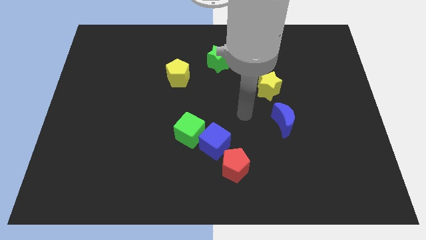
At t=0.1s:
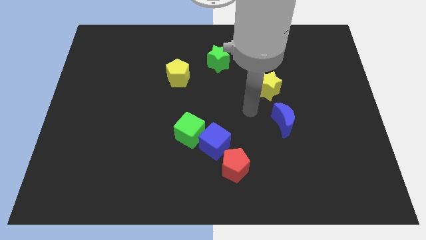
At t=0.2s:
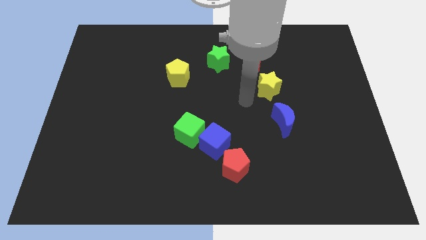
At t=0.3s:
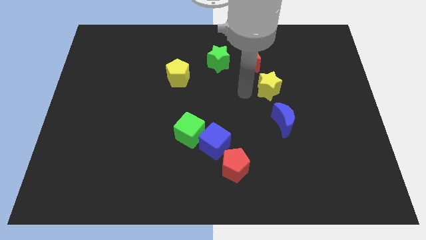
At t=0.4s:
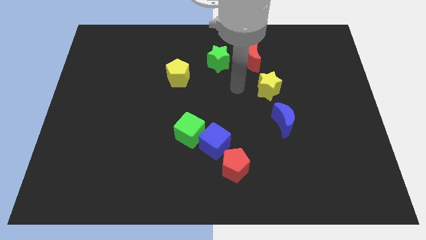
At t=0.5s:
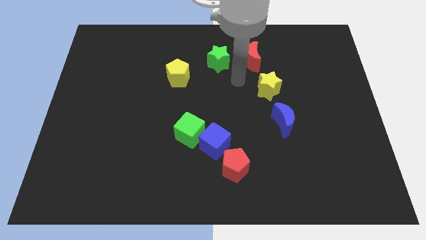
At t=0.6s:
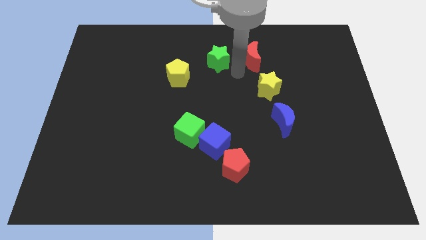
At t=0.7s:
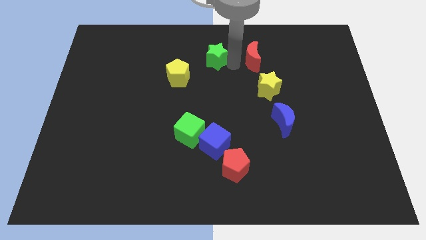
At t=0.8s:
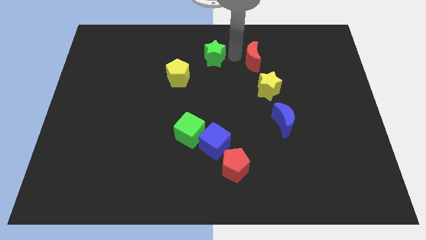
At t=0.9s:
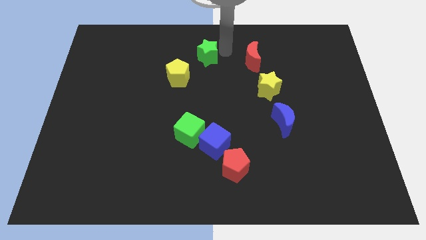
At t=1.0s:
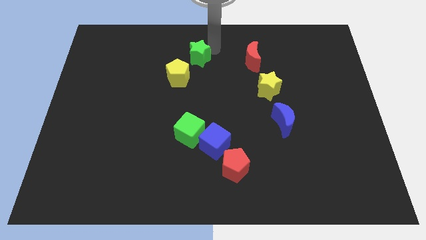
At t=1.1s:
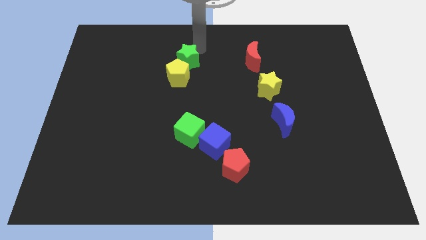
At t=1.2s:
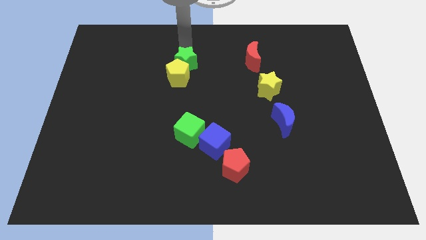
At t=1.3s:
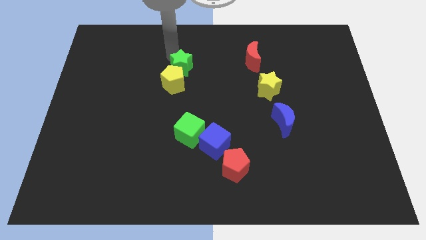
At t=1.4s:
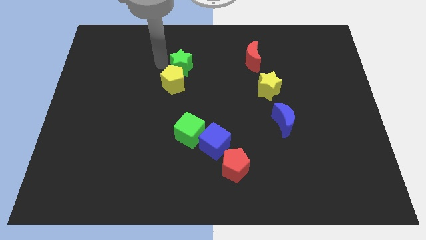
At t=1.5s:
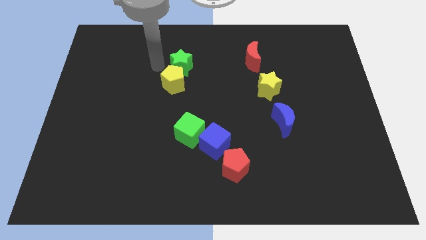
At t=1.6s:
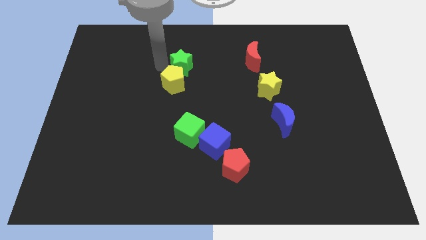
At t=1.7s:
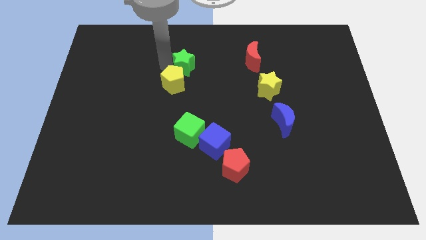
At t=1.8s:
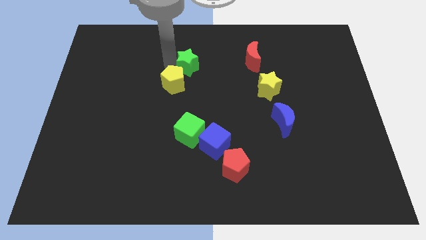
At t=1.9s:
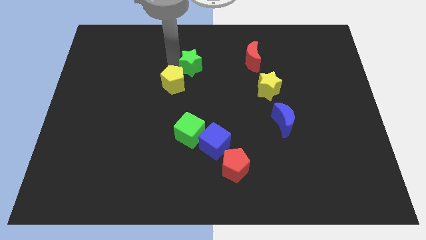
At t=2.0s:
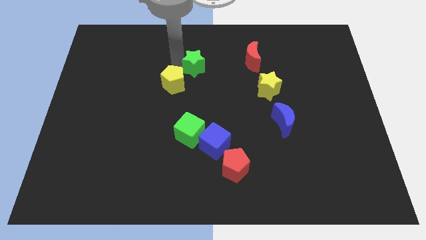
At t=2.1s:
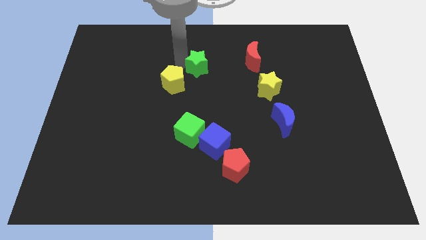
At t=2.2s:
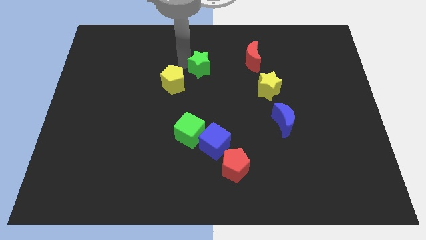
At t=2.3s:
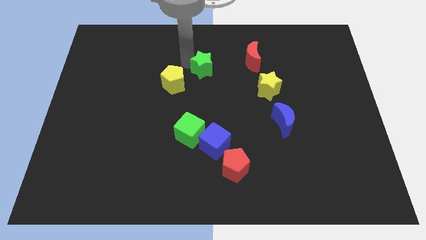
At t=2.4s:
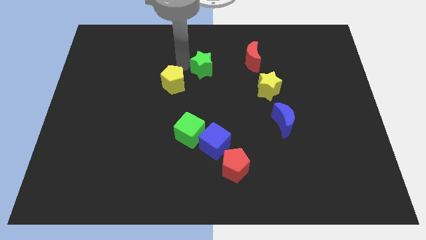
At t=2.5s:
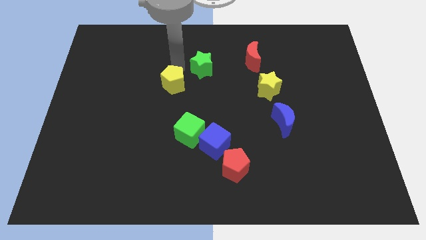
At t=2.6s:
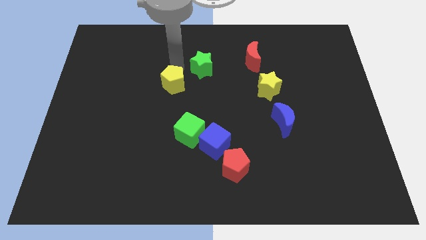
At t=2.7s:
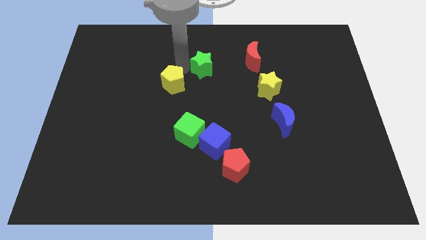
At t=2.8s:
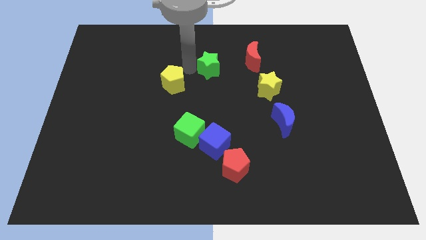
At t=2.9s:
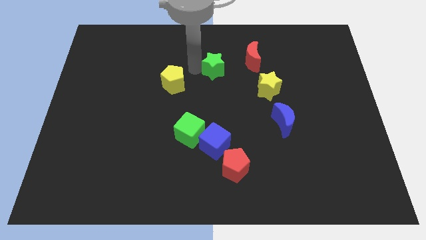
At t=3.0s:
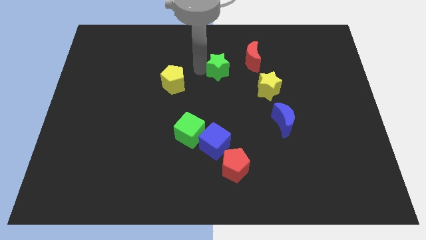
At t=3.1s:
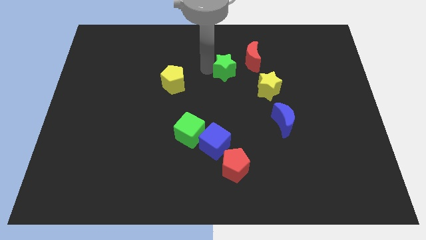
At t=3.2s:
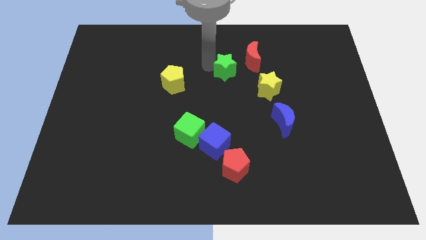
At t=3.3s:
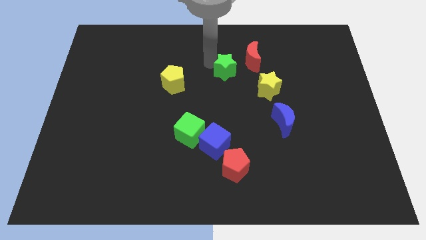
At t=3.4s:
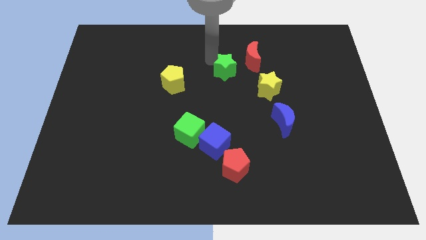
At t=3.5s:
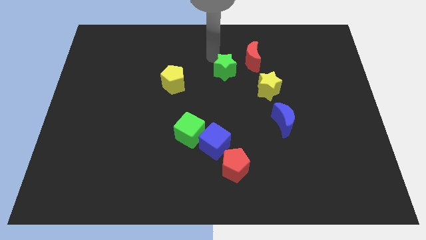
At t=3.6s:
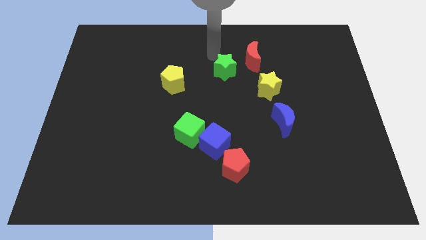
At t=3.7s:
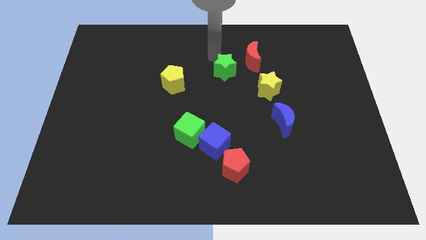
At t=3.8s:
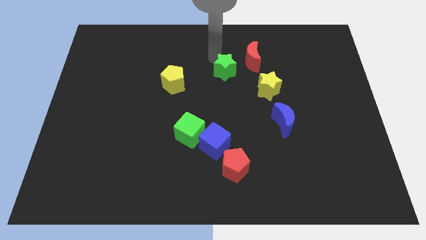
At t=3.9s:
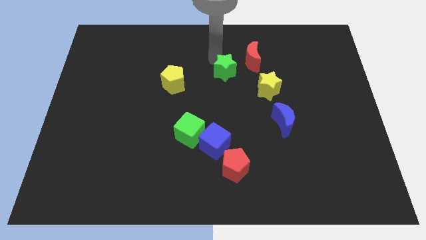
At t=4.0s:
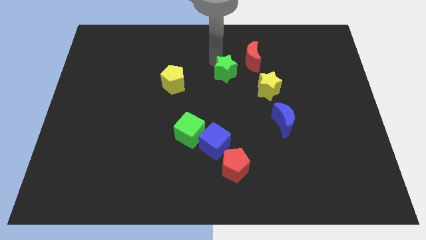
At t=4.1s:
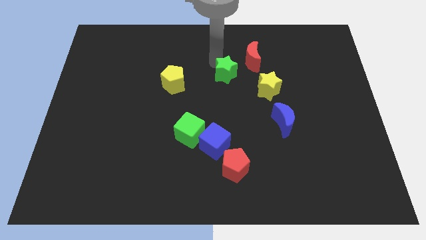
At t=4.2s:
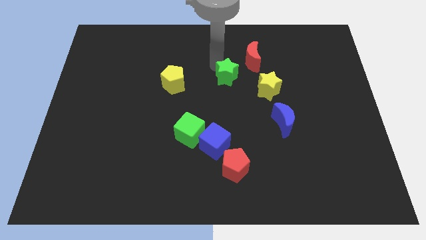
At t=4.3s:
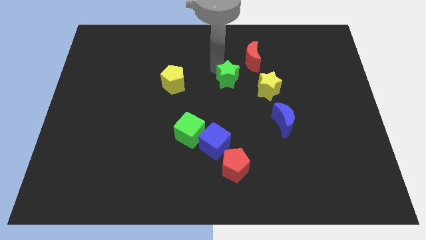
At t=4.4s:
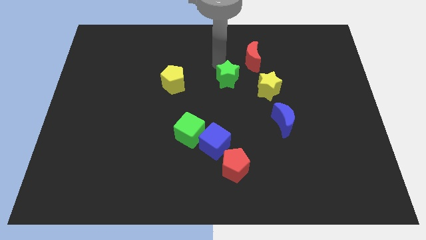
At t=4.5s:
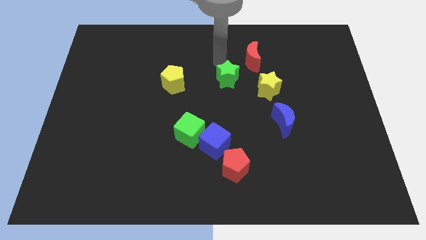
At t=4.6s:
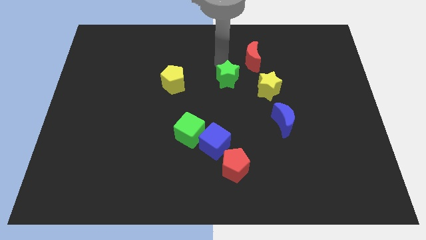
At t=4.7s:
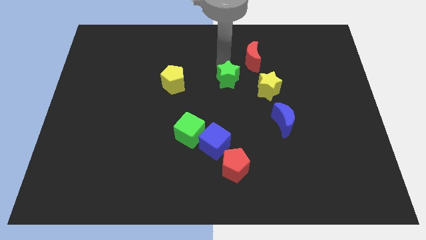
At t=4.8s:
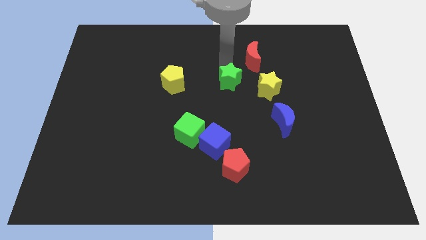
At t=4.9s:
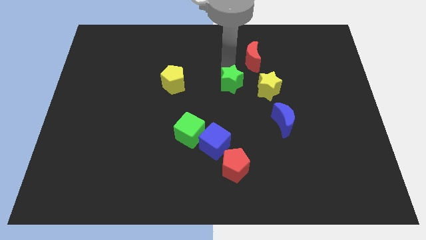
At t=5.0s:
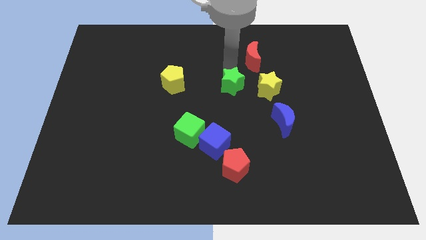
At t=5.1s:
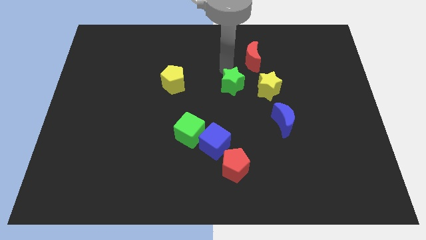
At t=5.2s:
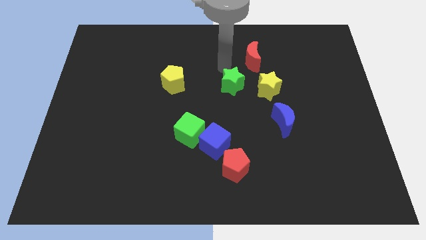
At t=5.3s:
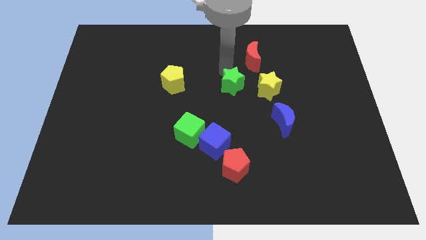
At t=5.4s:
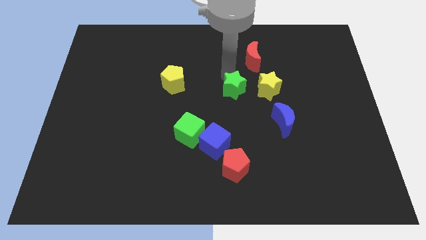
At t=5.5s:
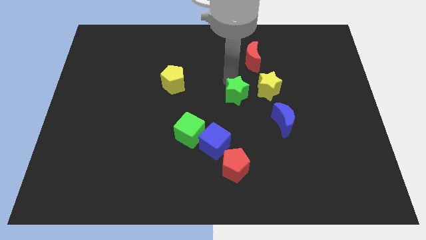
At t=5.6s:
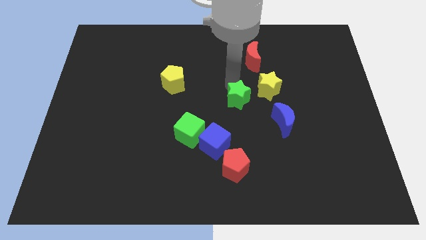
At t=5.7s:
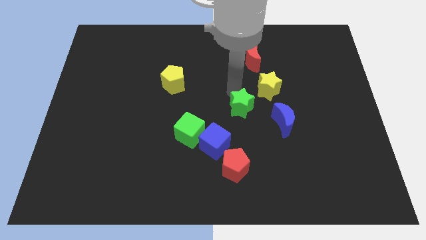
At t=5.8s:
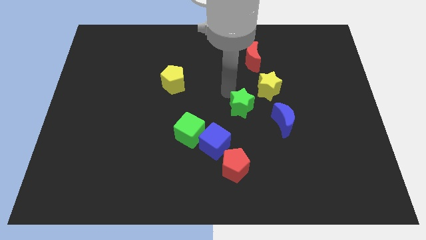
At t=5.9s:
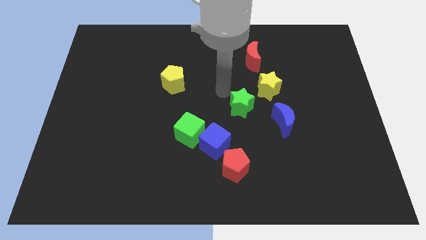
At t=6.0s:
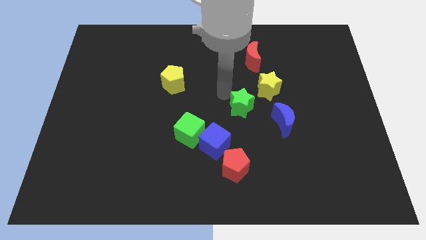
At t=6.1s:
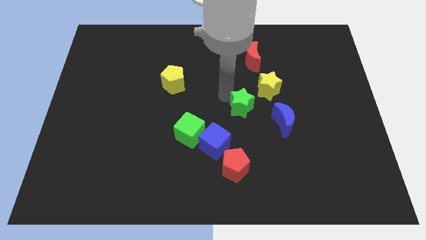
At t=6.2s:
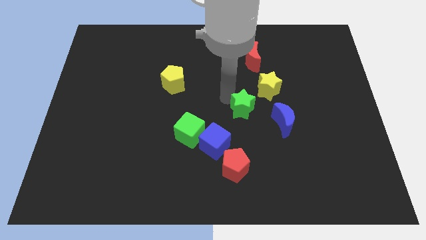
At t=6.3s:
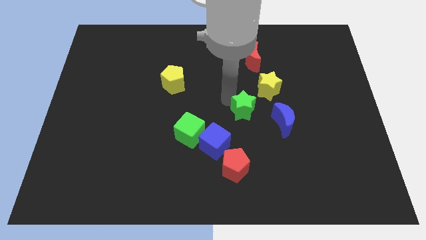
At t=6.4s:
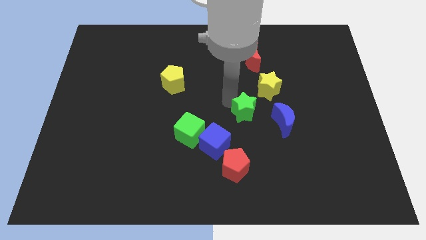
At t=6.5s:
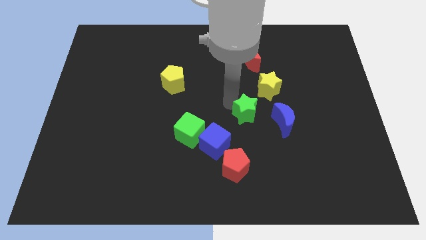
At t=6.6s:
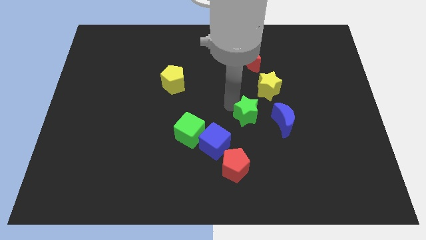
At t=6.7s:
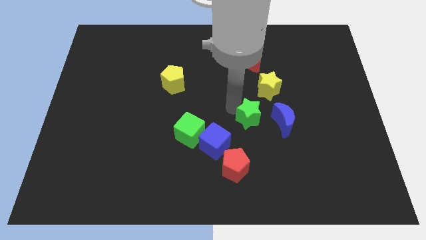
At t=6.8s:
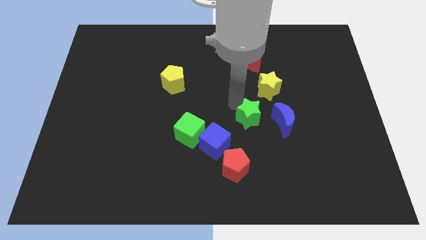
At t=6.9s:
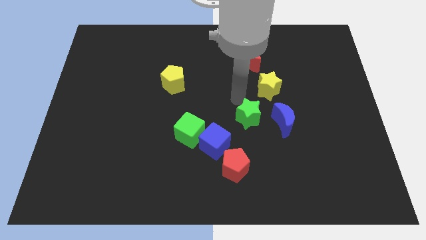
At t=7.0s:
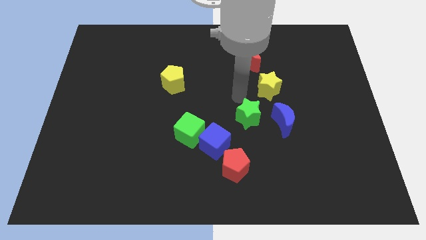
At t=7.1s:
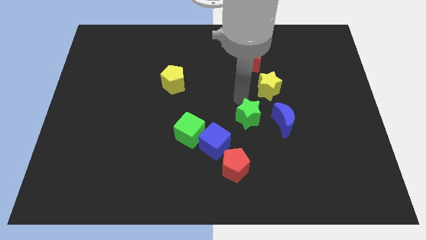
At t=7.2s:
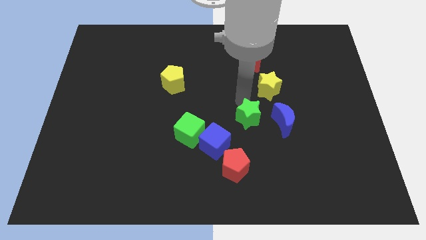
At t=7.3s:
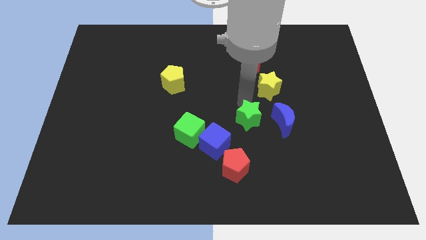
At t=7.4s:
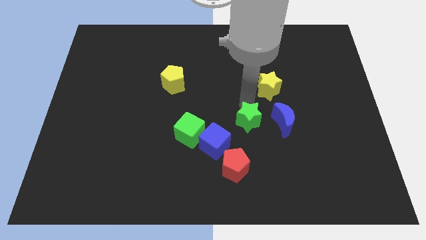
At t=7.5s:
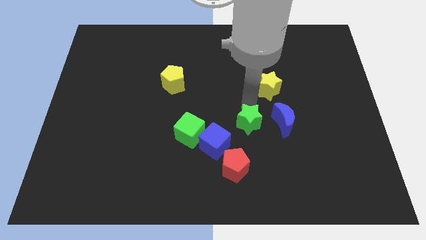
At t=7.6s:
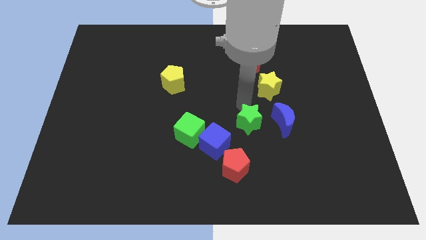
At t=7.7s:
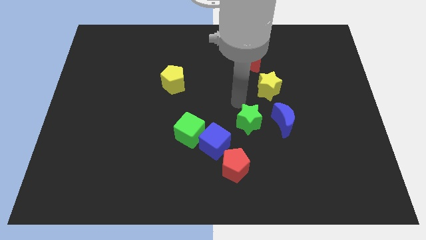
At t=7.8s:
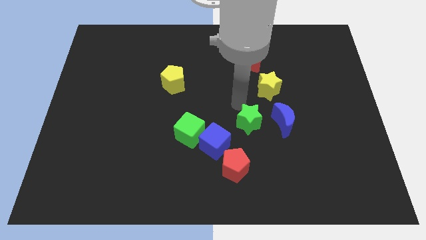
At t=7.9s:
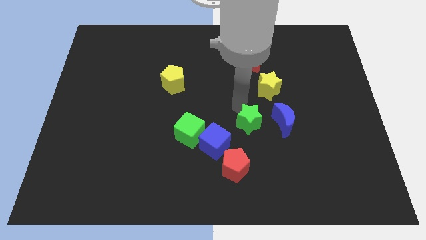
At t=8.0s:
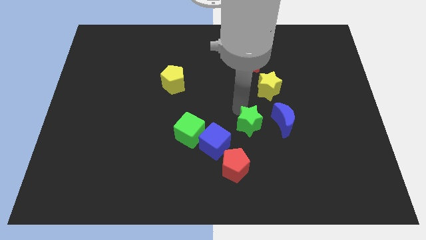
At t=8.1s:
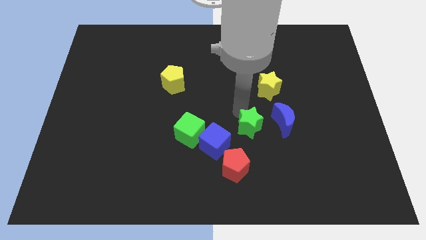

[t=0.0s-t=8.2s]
slide the green star to the right of the blue cube

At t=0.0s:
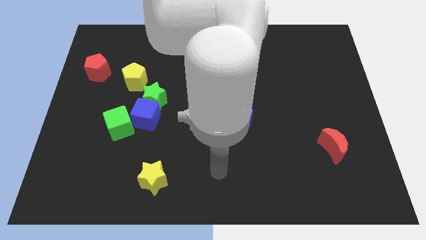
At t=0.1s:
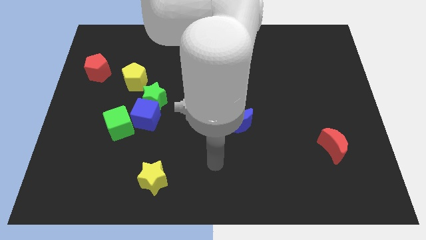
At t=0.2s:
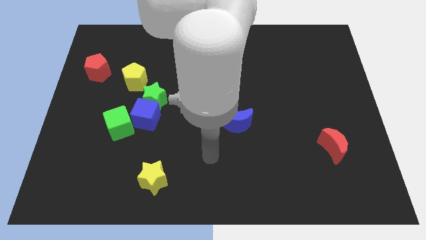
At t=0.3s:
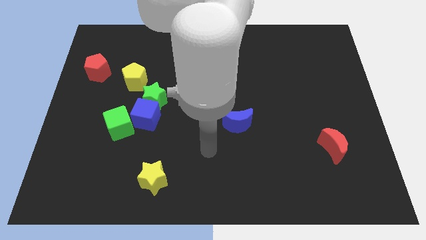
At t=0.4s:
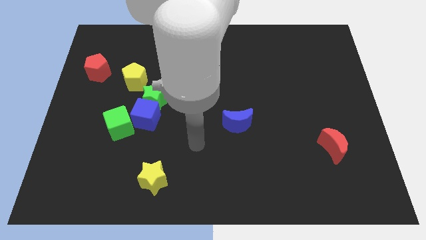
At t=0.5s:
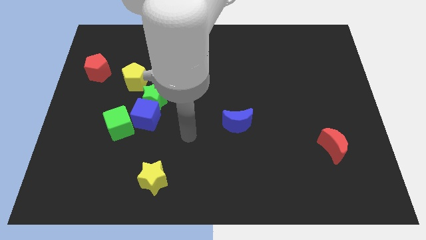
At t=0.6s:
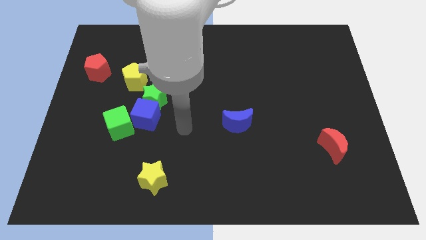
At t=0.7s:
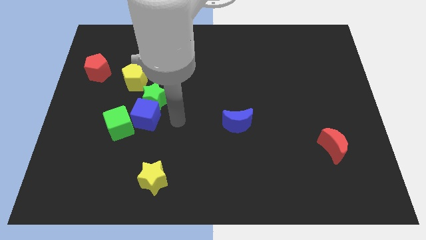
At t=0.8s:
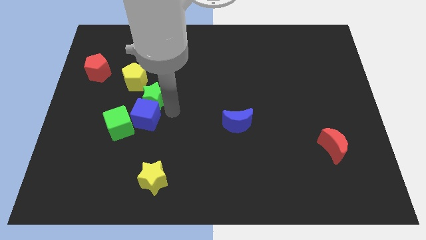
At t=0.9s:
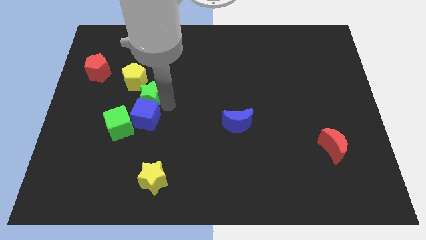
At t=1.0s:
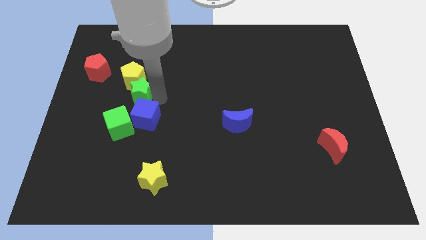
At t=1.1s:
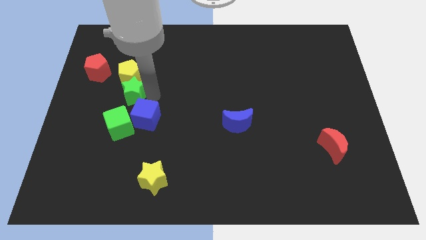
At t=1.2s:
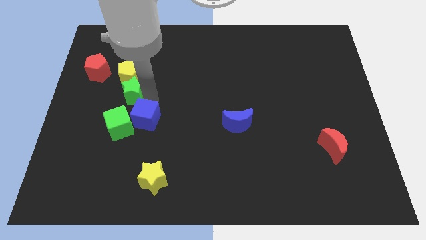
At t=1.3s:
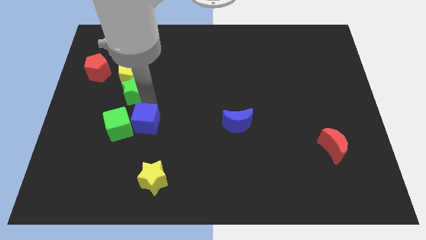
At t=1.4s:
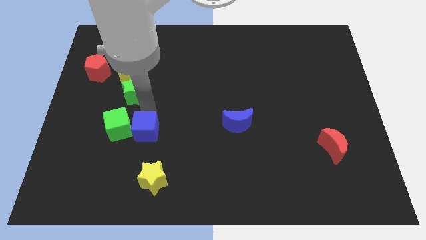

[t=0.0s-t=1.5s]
push the blue cube to the bottom right of the green cube
